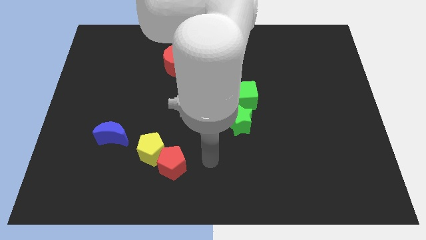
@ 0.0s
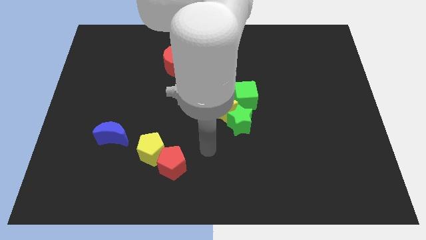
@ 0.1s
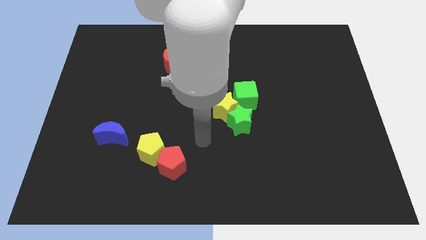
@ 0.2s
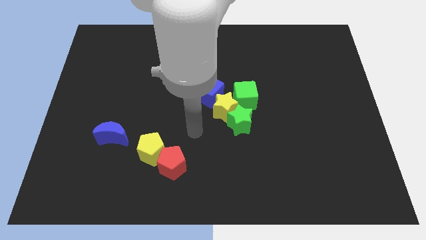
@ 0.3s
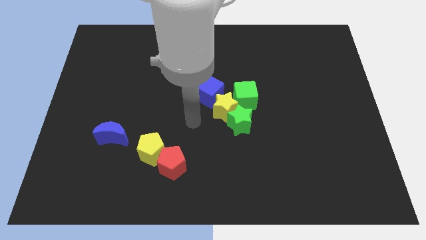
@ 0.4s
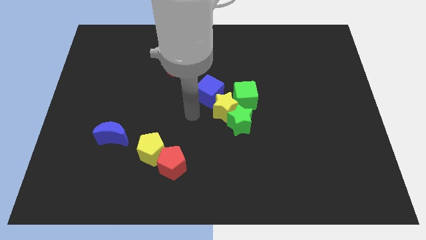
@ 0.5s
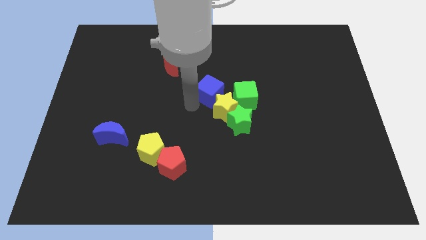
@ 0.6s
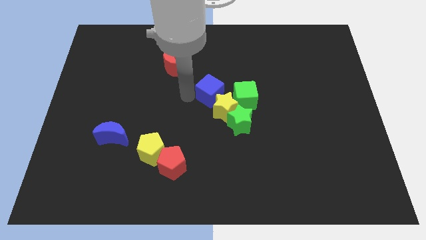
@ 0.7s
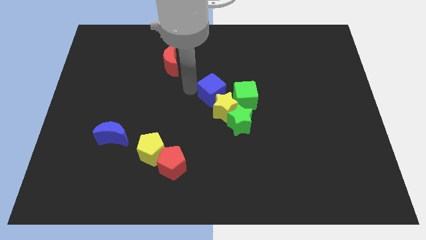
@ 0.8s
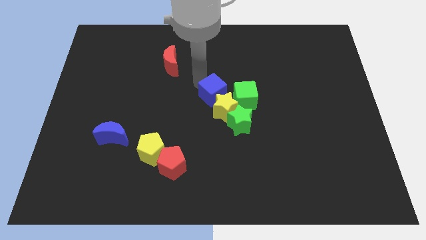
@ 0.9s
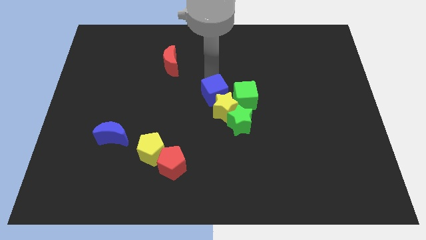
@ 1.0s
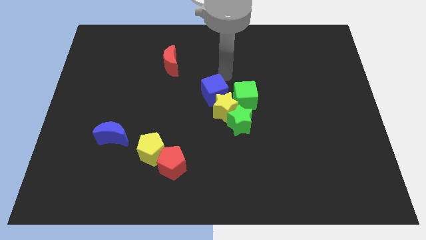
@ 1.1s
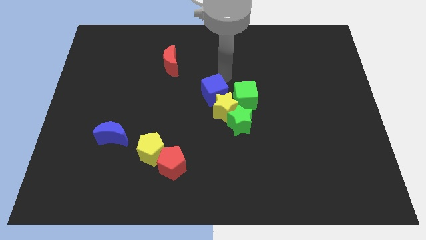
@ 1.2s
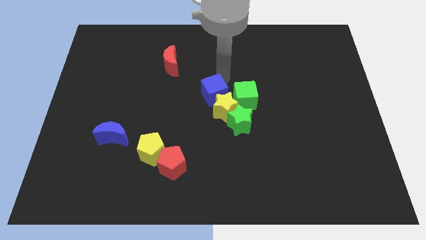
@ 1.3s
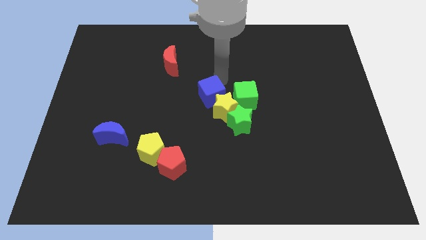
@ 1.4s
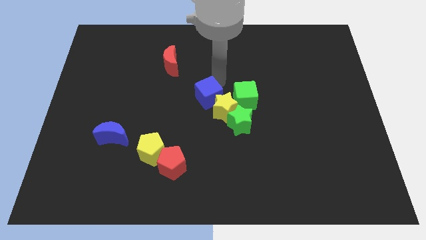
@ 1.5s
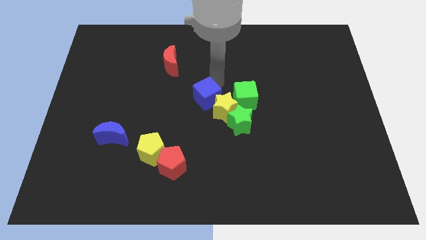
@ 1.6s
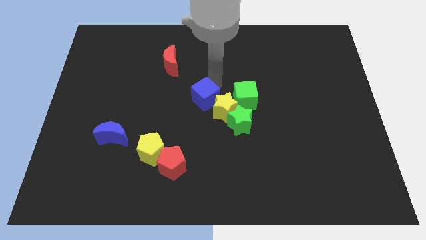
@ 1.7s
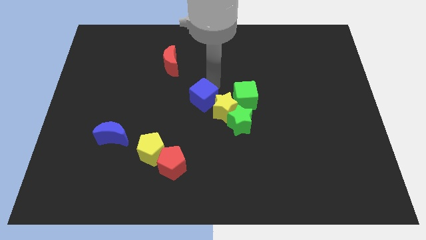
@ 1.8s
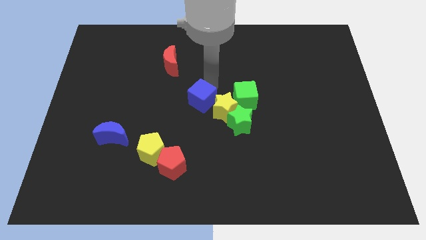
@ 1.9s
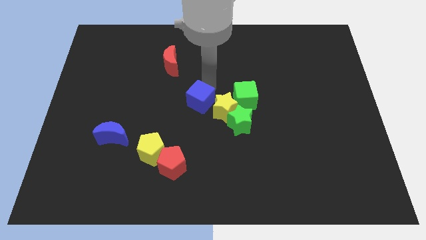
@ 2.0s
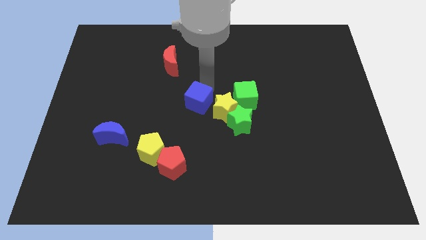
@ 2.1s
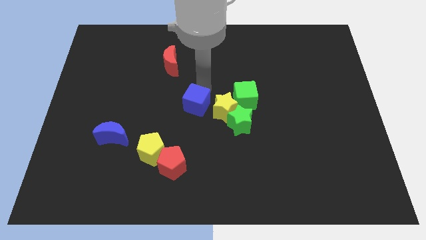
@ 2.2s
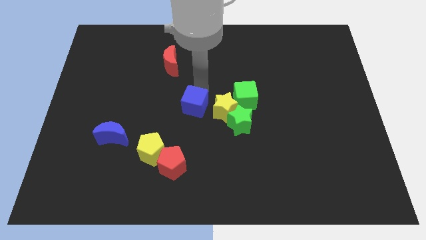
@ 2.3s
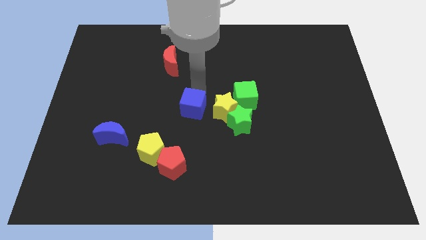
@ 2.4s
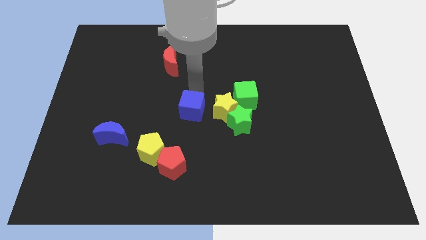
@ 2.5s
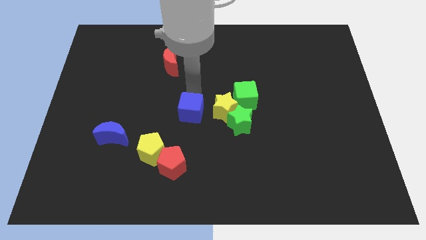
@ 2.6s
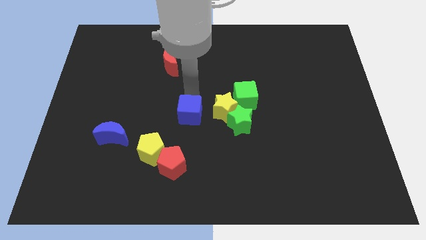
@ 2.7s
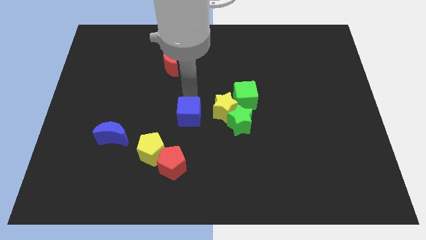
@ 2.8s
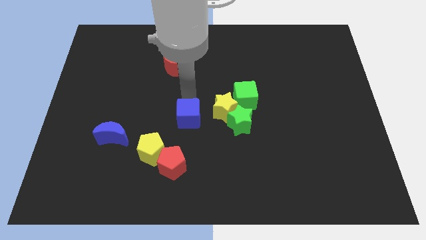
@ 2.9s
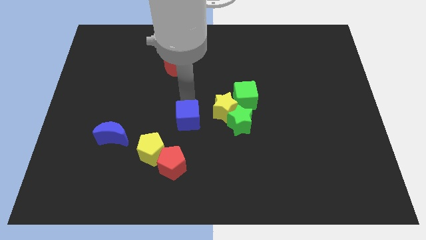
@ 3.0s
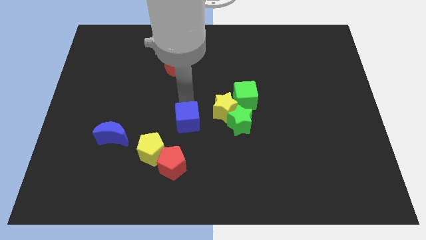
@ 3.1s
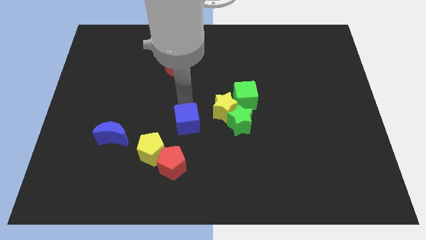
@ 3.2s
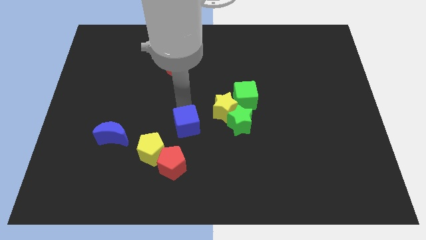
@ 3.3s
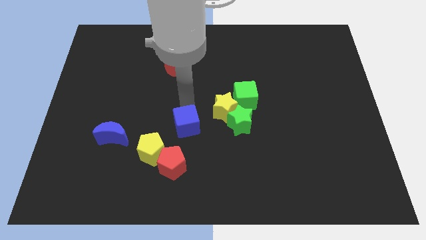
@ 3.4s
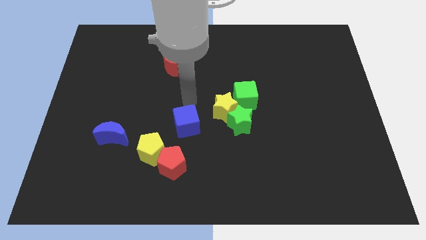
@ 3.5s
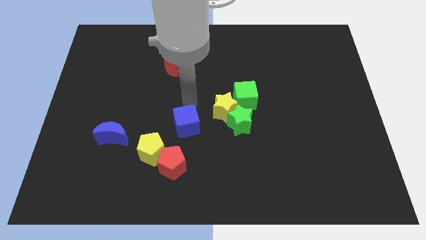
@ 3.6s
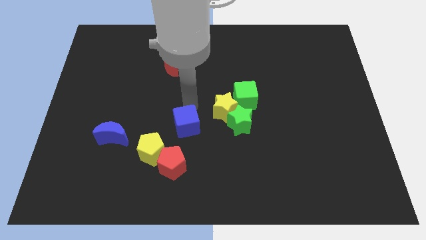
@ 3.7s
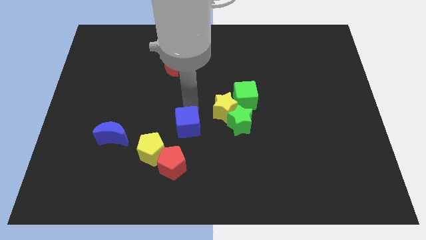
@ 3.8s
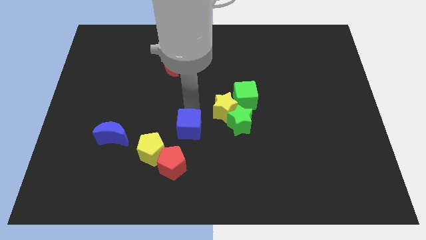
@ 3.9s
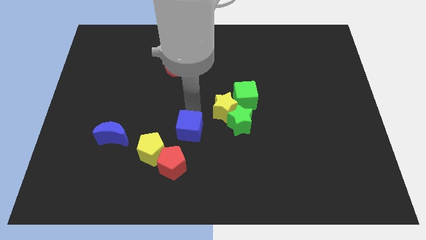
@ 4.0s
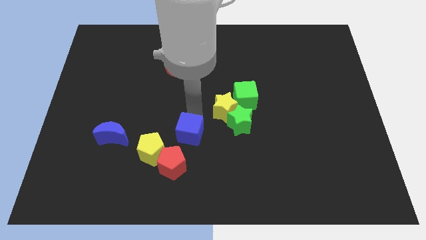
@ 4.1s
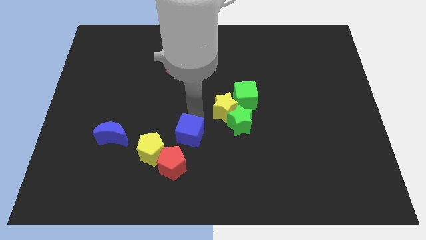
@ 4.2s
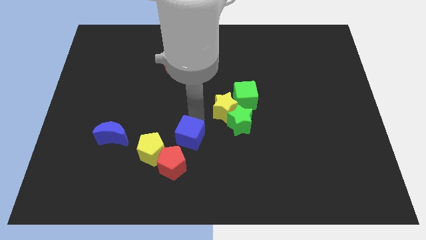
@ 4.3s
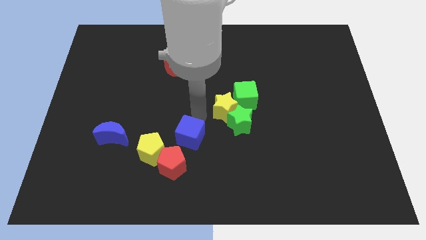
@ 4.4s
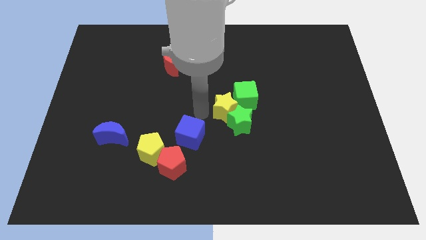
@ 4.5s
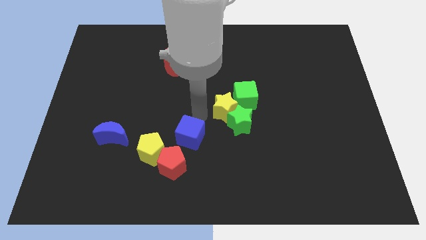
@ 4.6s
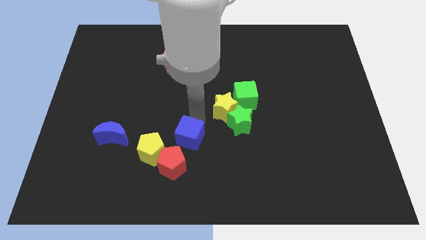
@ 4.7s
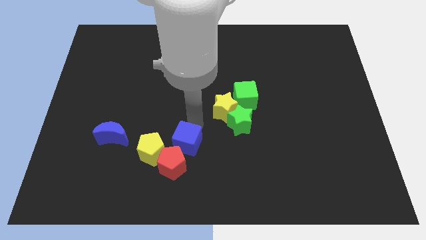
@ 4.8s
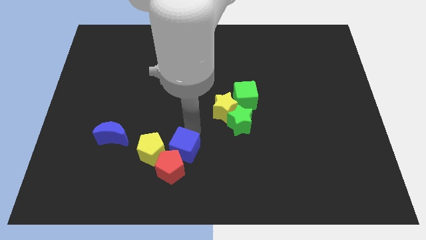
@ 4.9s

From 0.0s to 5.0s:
put the blue cube towards the red pentagon

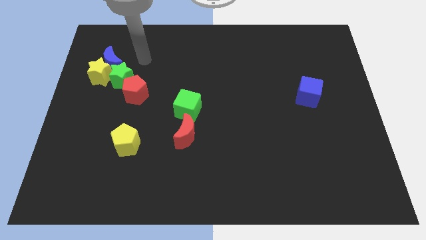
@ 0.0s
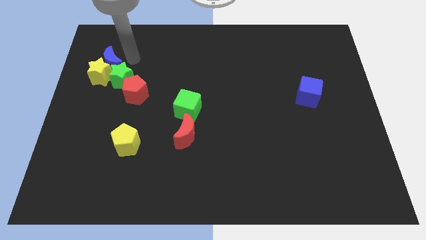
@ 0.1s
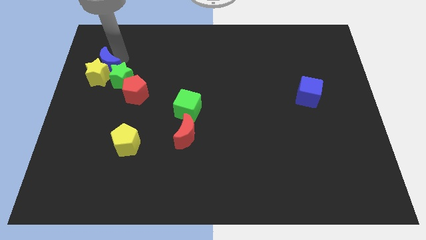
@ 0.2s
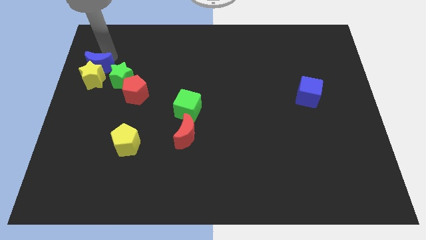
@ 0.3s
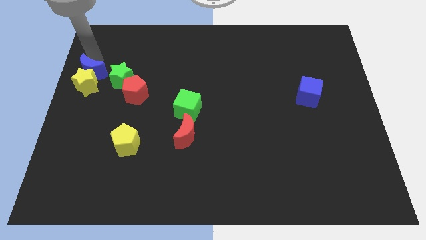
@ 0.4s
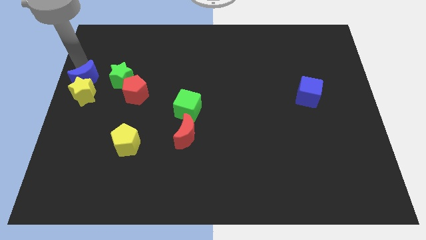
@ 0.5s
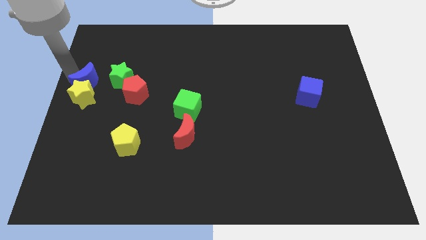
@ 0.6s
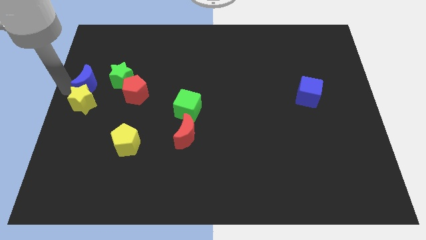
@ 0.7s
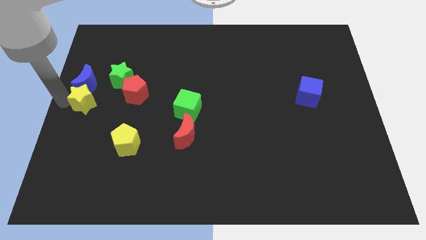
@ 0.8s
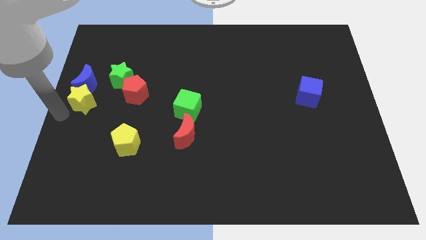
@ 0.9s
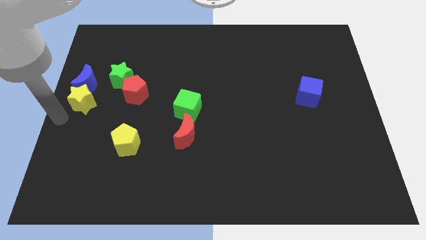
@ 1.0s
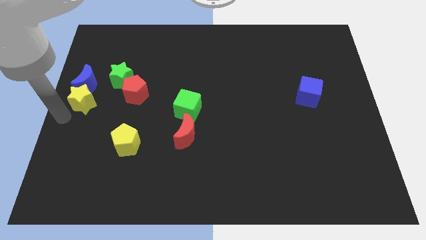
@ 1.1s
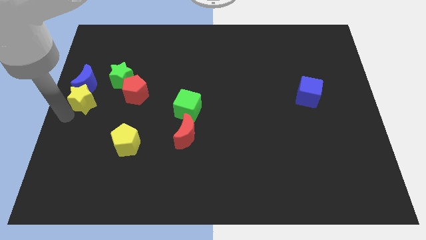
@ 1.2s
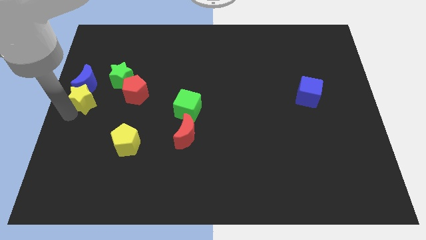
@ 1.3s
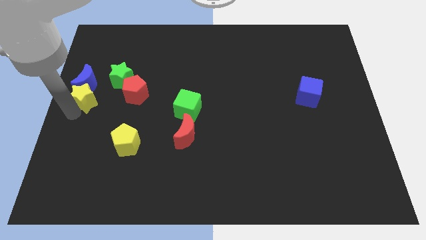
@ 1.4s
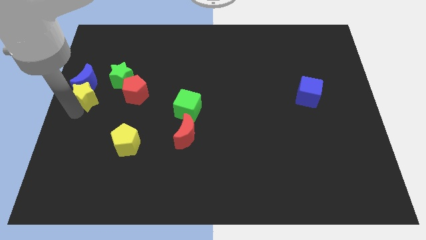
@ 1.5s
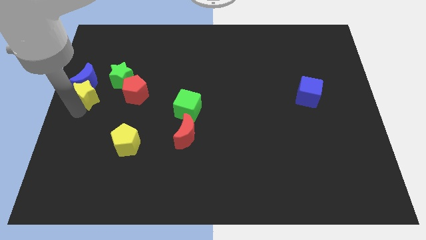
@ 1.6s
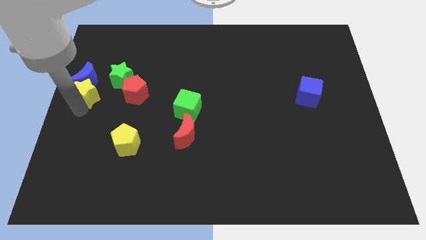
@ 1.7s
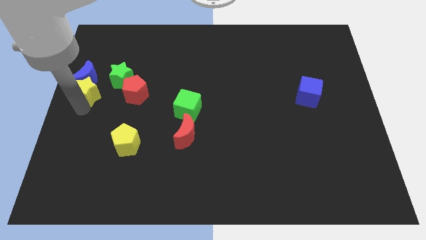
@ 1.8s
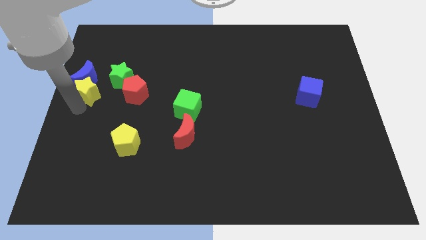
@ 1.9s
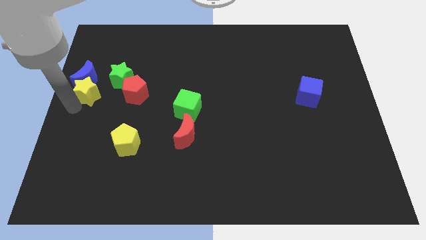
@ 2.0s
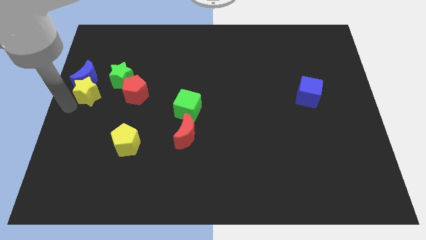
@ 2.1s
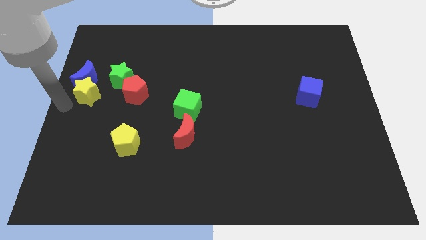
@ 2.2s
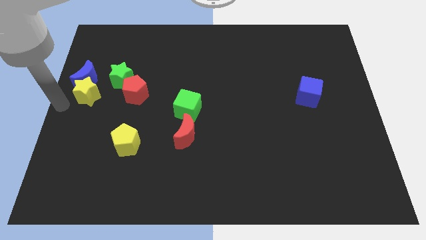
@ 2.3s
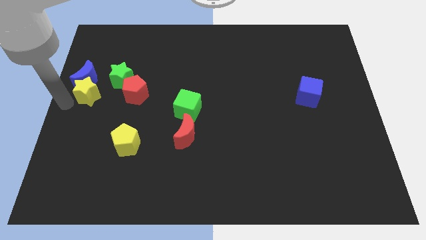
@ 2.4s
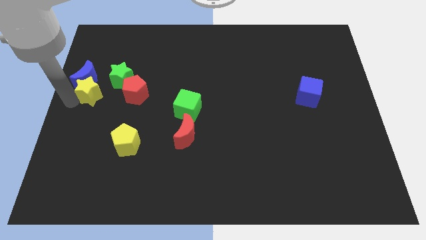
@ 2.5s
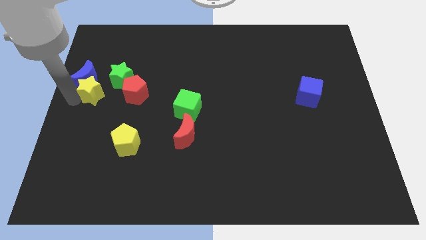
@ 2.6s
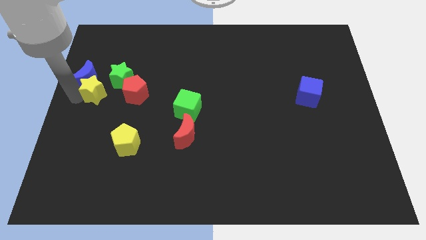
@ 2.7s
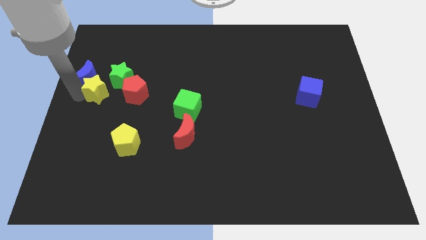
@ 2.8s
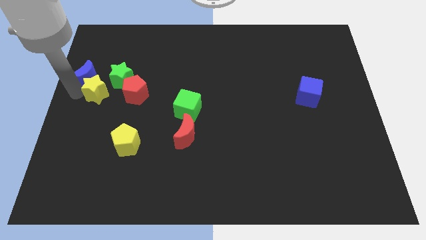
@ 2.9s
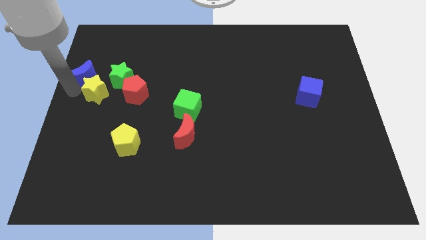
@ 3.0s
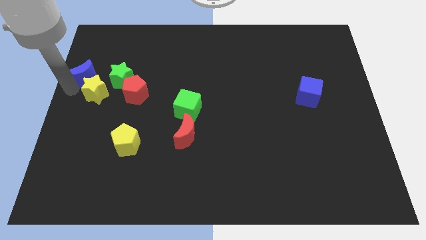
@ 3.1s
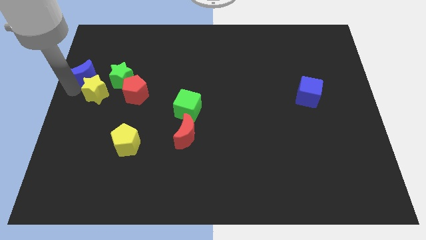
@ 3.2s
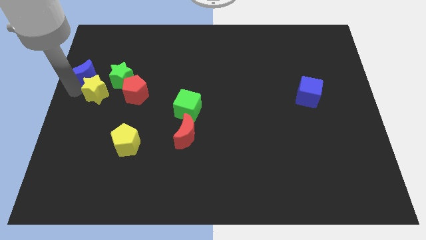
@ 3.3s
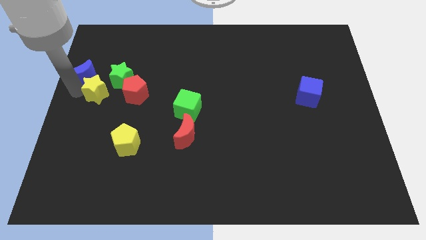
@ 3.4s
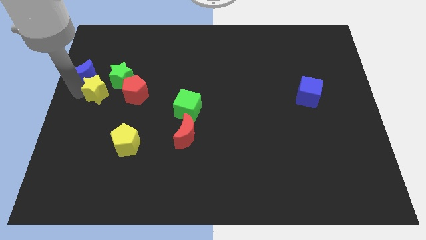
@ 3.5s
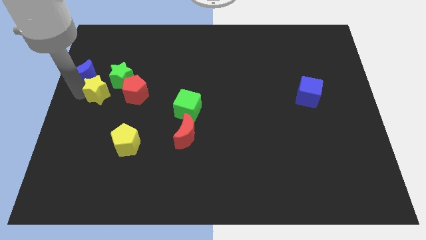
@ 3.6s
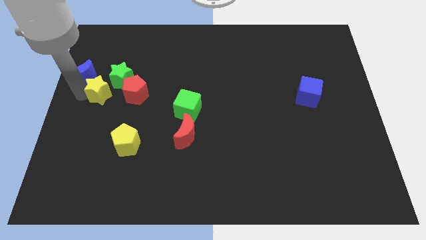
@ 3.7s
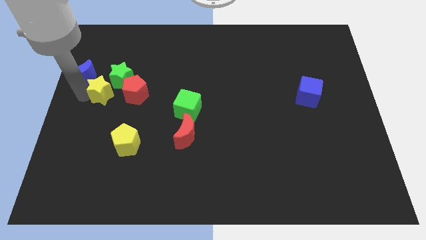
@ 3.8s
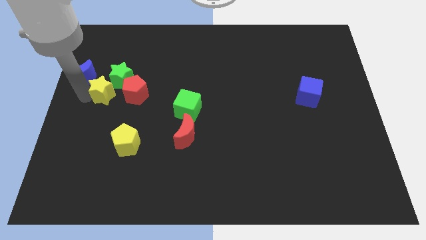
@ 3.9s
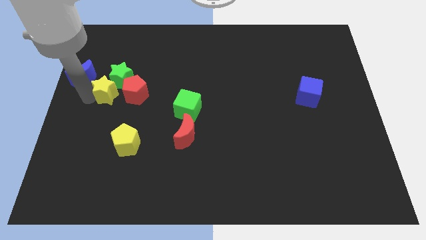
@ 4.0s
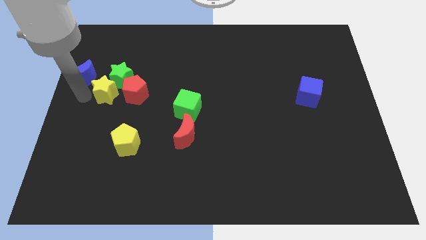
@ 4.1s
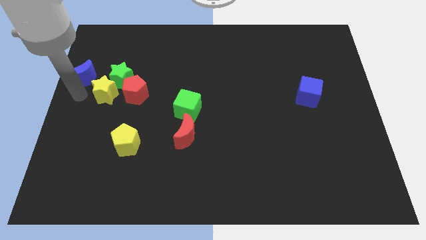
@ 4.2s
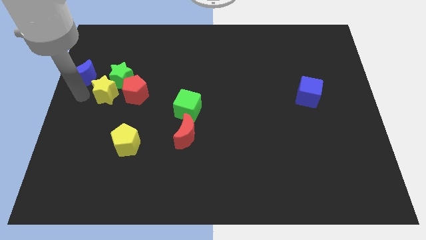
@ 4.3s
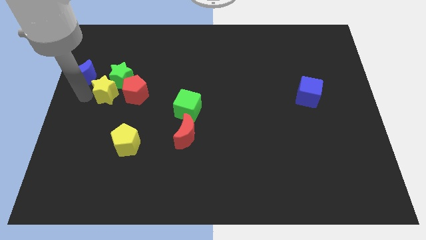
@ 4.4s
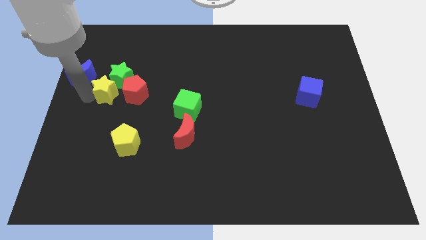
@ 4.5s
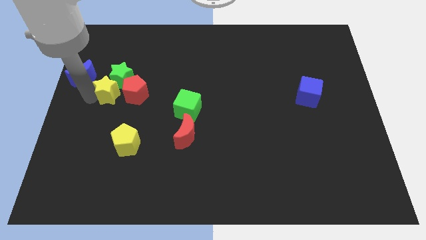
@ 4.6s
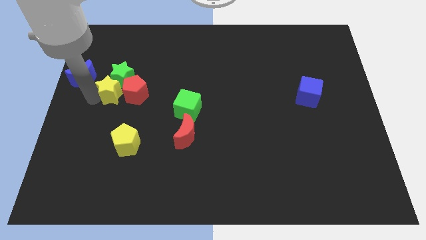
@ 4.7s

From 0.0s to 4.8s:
slide the yellow star close to the red pentagon
